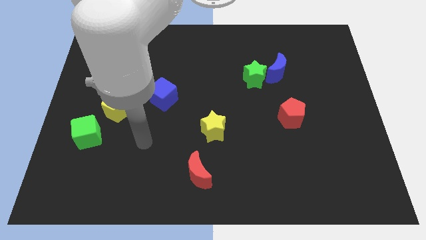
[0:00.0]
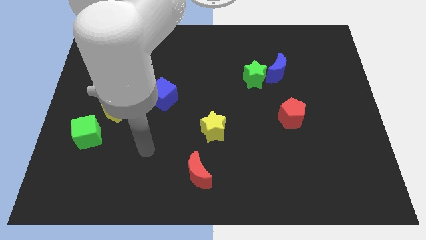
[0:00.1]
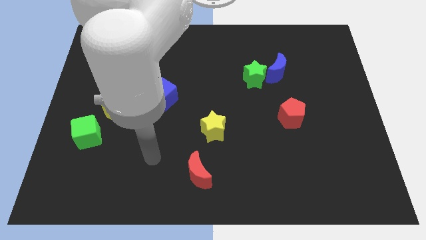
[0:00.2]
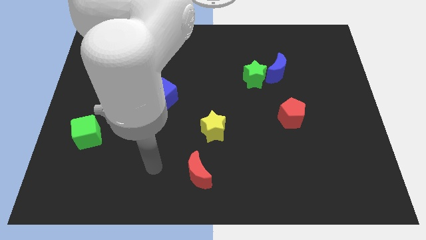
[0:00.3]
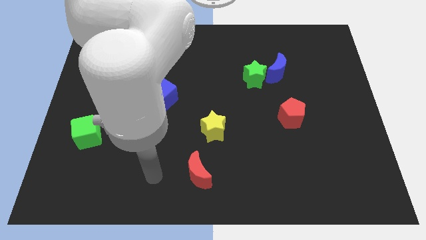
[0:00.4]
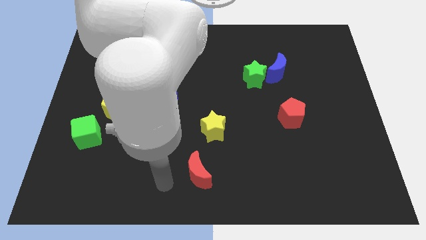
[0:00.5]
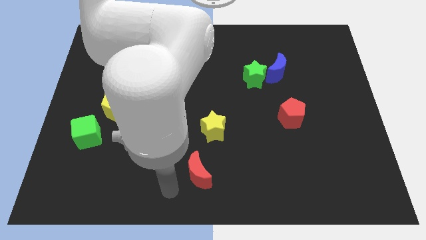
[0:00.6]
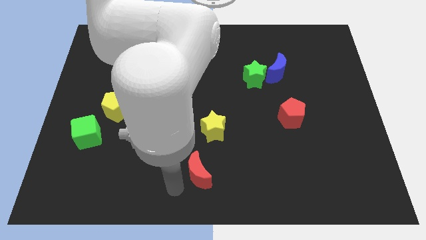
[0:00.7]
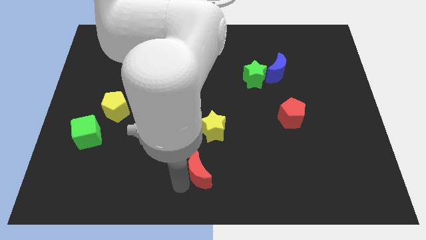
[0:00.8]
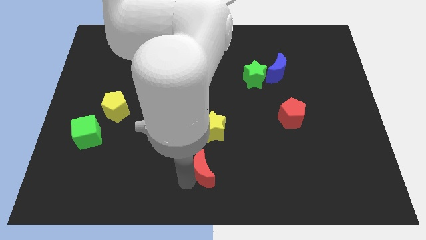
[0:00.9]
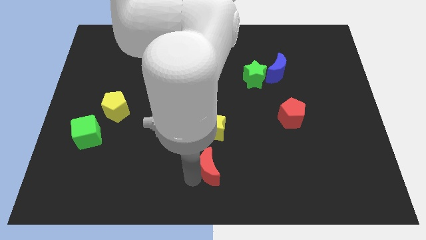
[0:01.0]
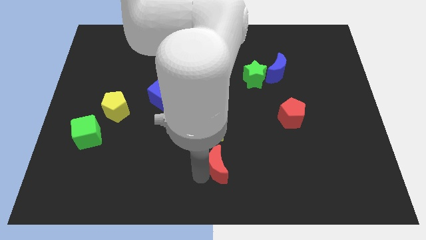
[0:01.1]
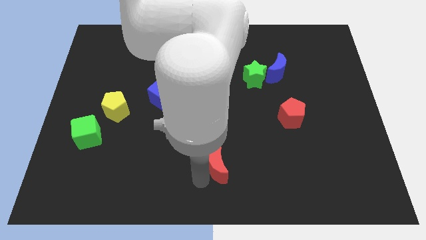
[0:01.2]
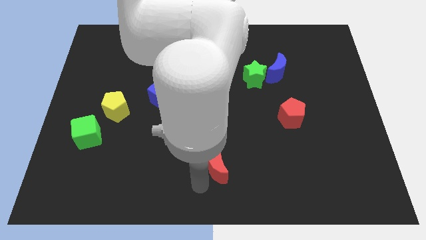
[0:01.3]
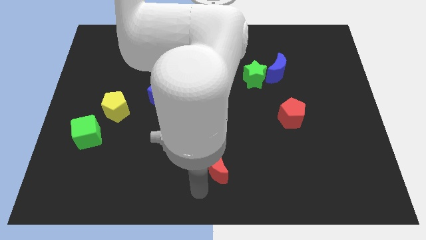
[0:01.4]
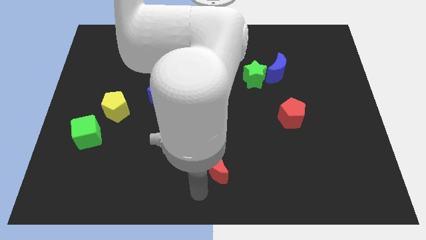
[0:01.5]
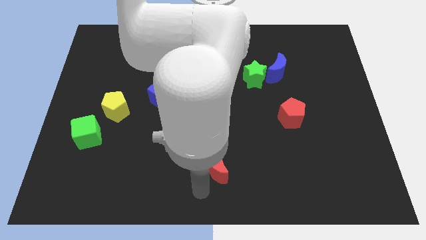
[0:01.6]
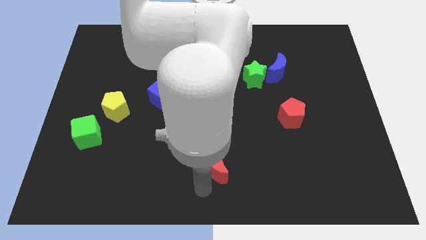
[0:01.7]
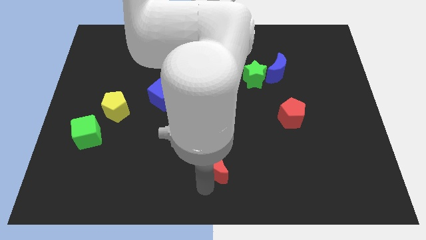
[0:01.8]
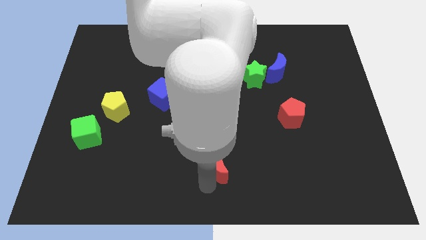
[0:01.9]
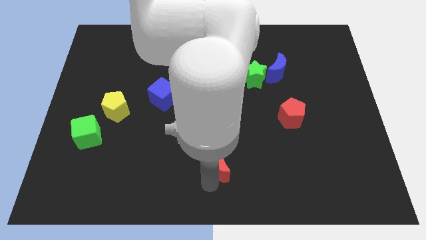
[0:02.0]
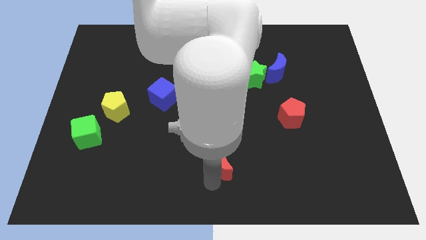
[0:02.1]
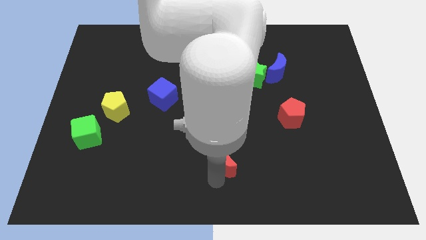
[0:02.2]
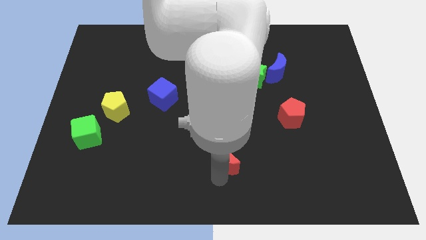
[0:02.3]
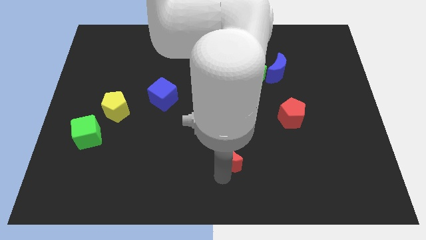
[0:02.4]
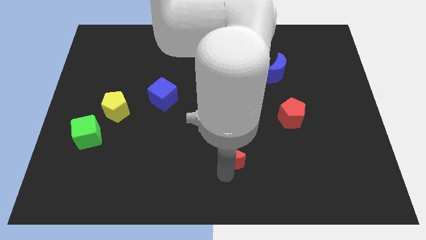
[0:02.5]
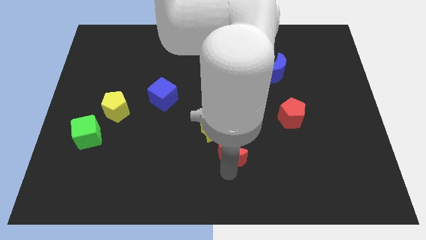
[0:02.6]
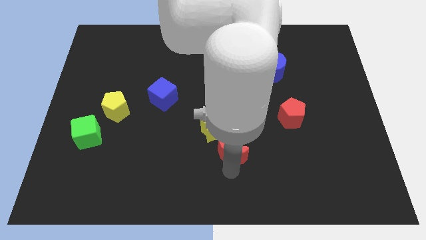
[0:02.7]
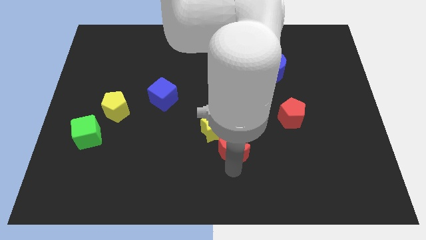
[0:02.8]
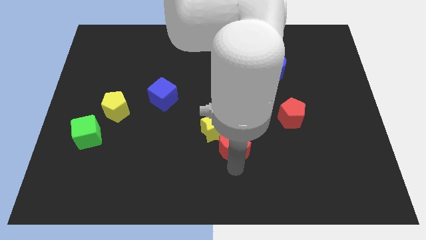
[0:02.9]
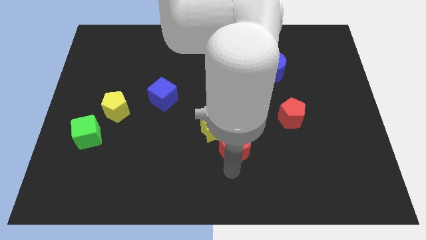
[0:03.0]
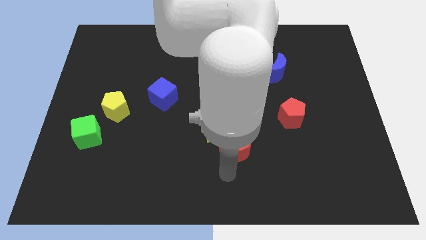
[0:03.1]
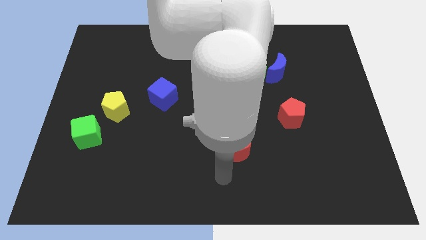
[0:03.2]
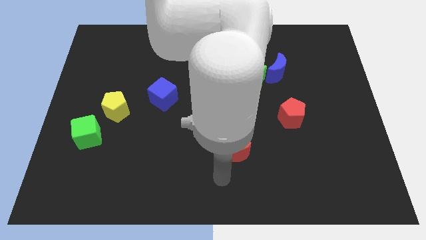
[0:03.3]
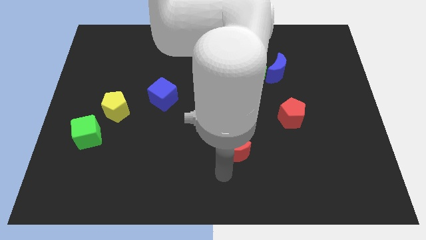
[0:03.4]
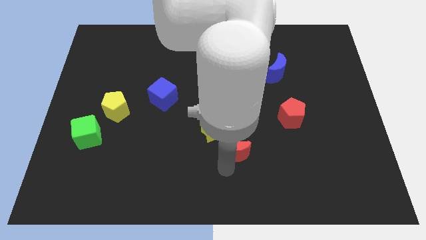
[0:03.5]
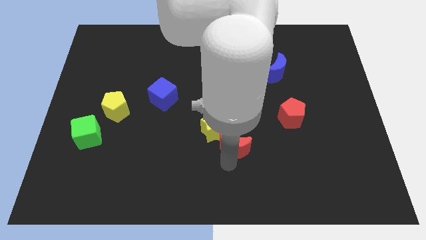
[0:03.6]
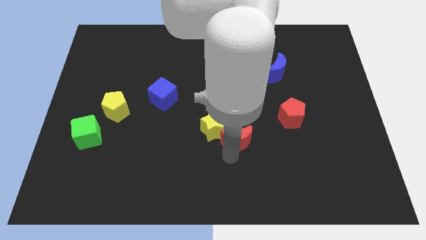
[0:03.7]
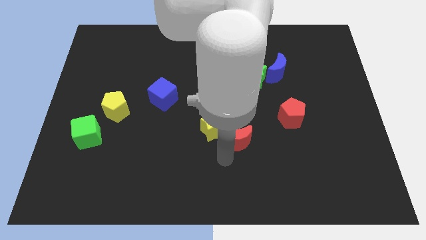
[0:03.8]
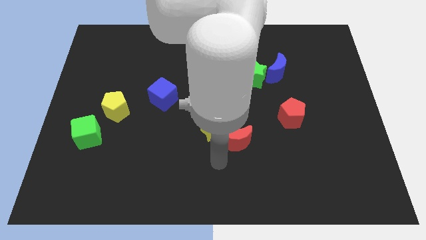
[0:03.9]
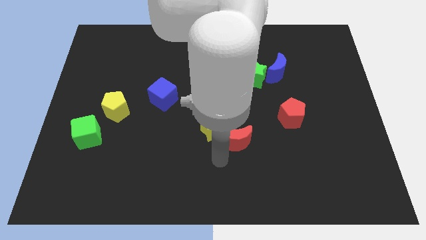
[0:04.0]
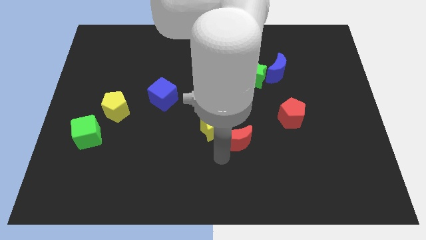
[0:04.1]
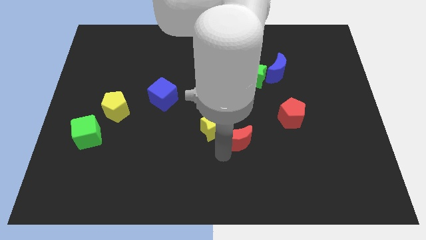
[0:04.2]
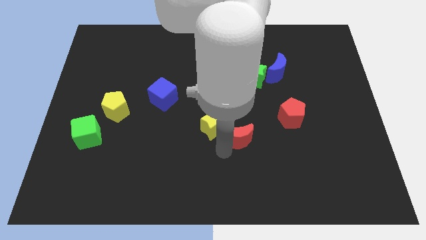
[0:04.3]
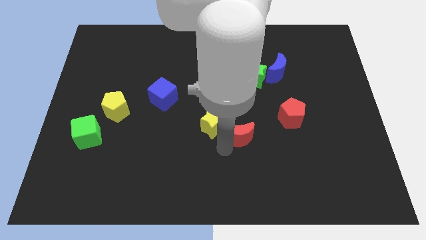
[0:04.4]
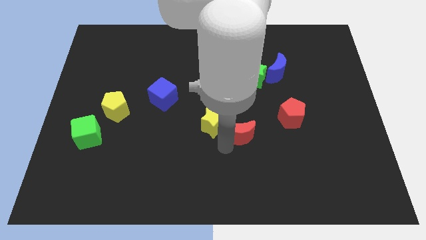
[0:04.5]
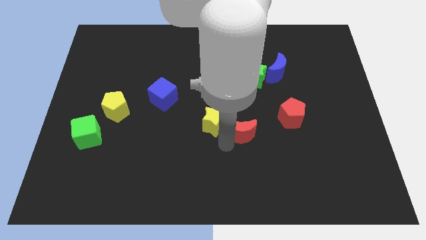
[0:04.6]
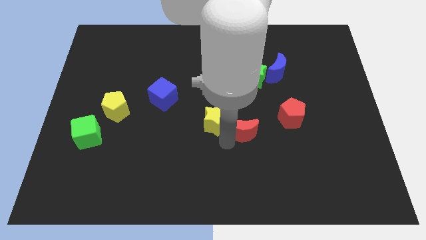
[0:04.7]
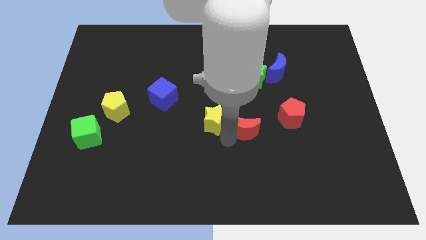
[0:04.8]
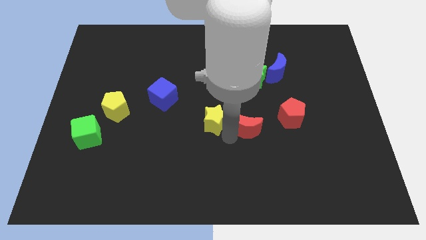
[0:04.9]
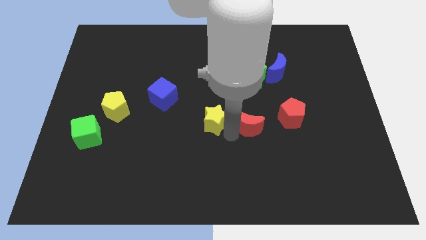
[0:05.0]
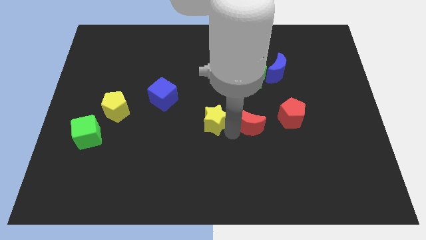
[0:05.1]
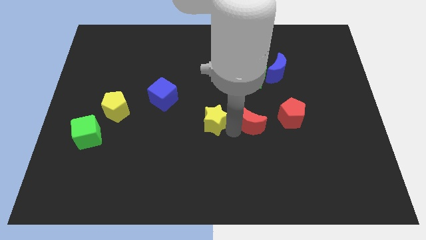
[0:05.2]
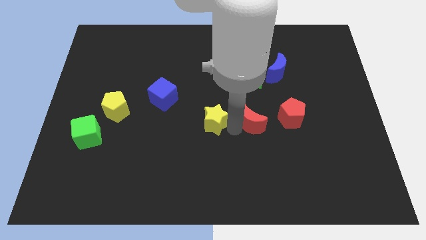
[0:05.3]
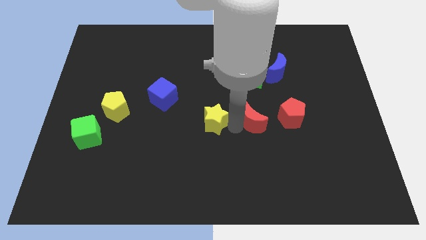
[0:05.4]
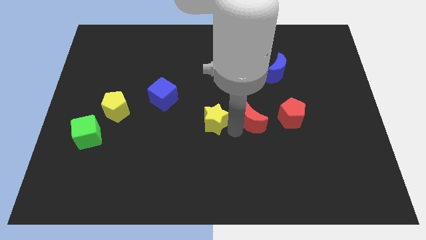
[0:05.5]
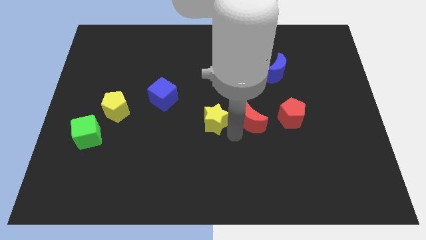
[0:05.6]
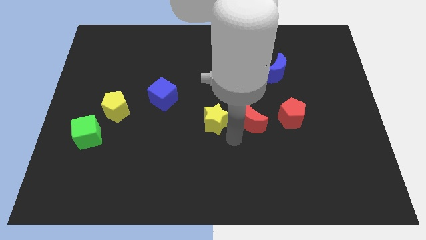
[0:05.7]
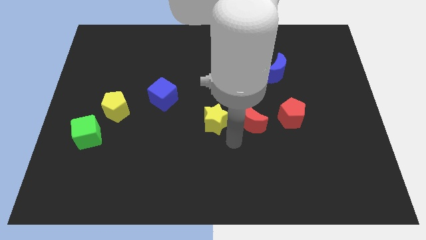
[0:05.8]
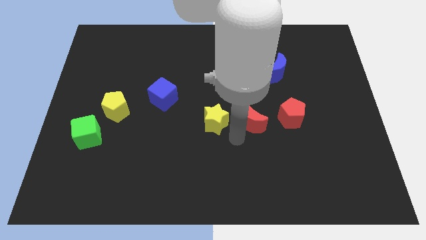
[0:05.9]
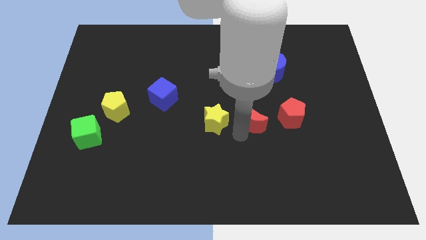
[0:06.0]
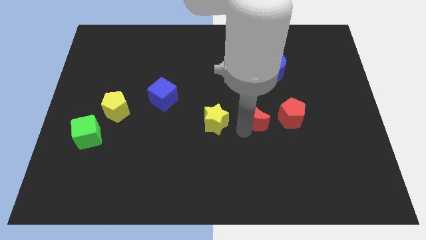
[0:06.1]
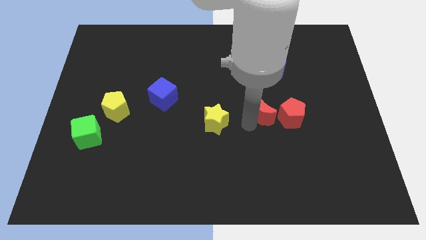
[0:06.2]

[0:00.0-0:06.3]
move the red moon upwards and right

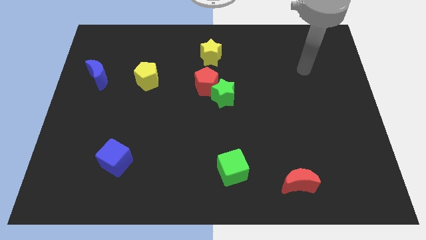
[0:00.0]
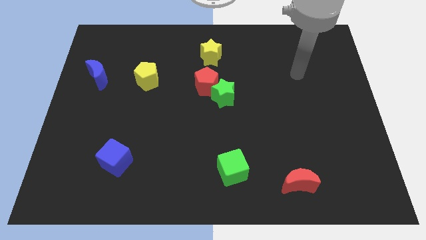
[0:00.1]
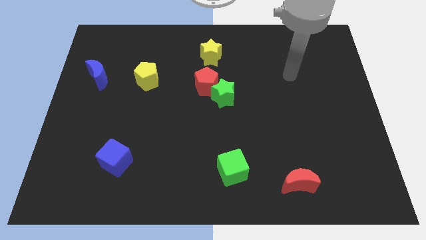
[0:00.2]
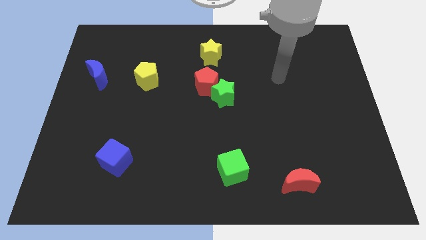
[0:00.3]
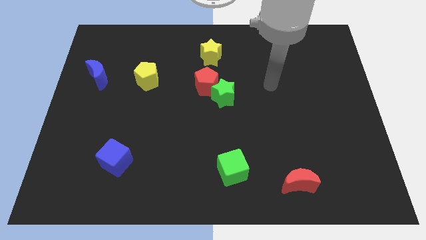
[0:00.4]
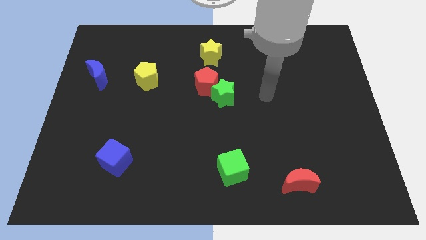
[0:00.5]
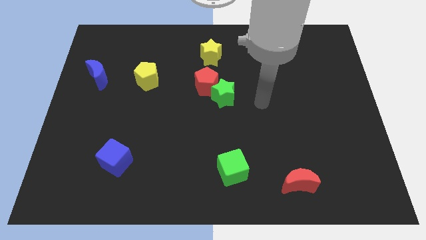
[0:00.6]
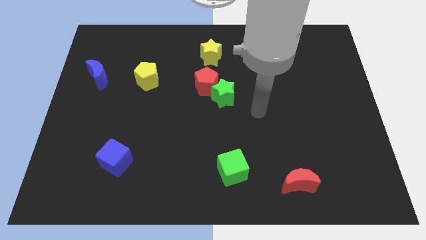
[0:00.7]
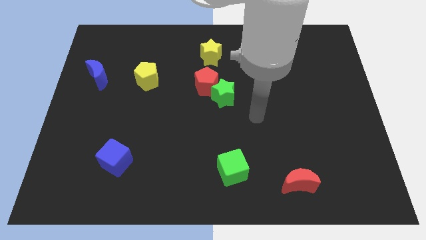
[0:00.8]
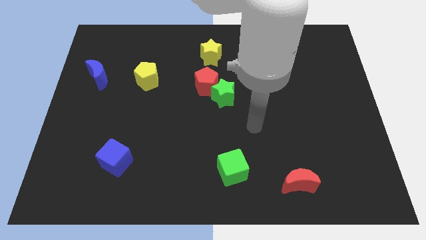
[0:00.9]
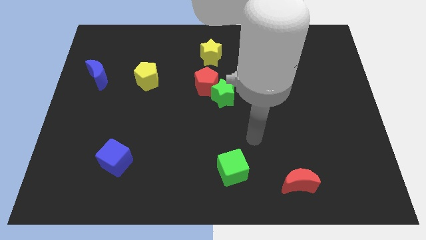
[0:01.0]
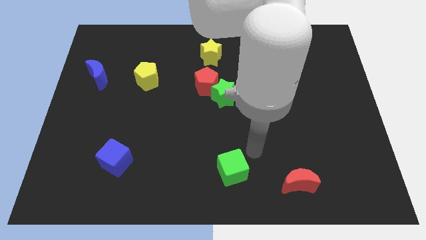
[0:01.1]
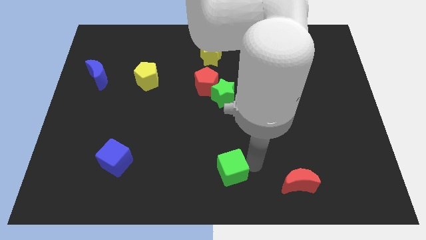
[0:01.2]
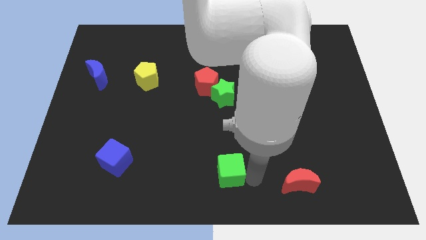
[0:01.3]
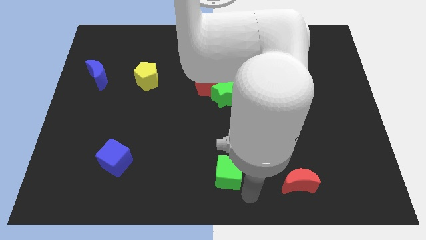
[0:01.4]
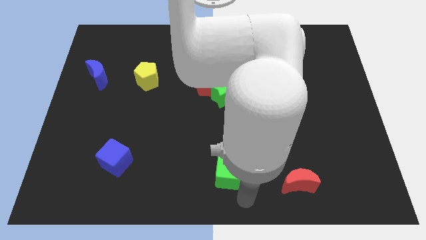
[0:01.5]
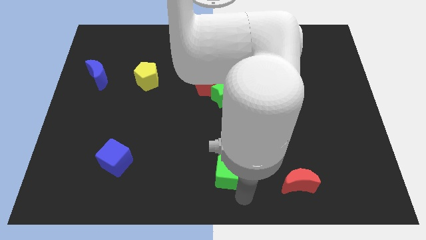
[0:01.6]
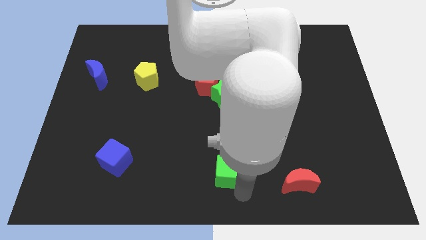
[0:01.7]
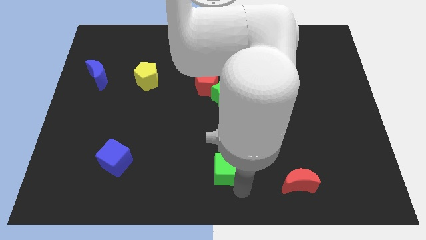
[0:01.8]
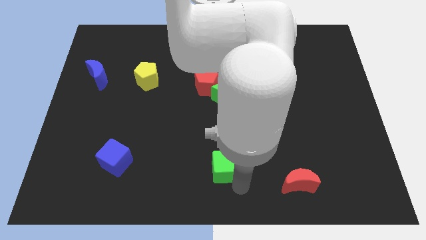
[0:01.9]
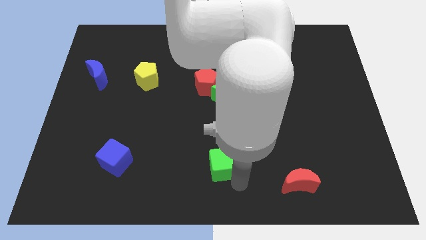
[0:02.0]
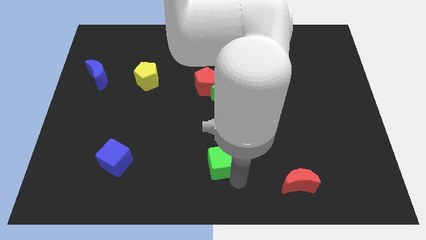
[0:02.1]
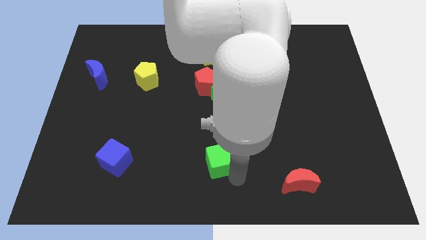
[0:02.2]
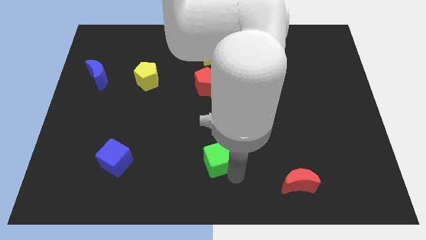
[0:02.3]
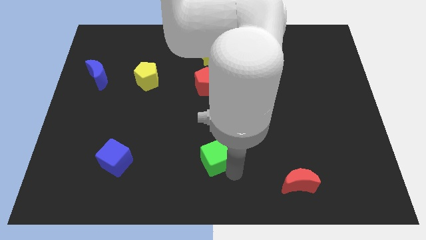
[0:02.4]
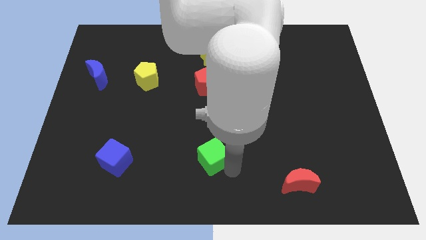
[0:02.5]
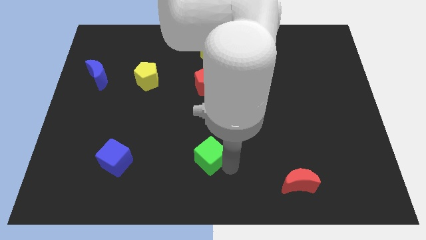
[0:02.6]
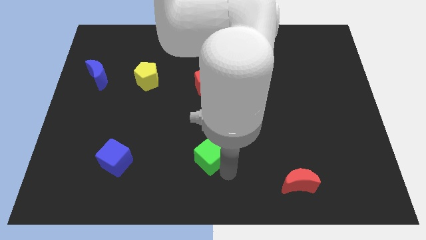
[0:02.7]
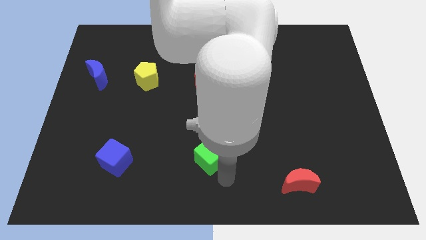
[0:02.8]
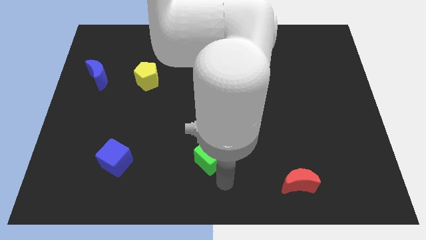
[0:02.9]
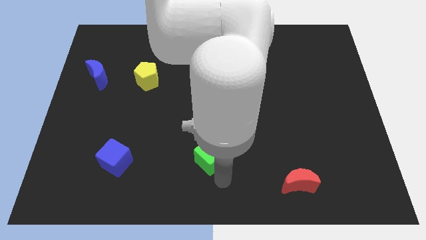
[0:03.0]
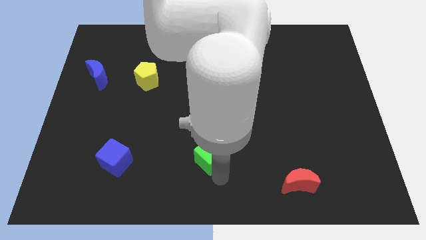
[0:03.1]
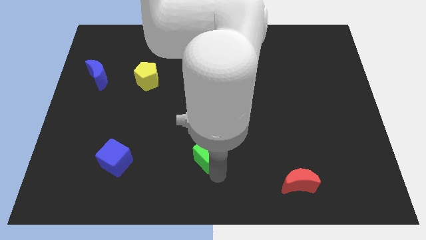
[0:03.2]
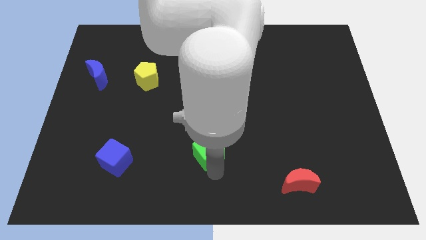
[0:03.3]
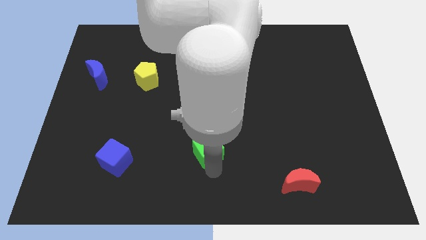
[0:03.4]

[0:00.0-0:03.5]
slightly push the green cube diagonally up and to the left
